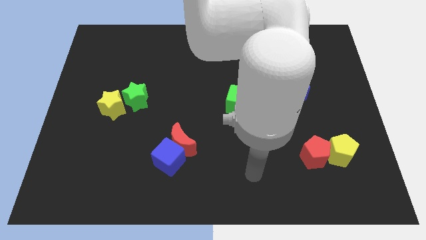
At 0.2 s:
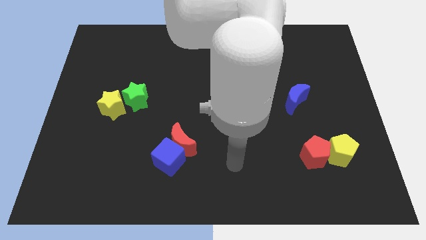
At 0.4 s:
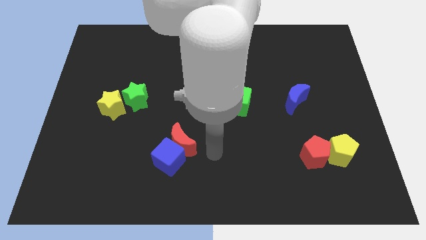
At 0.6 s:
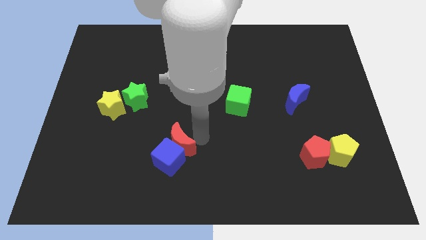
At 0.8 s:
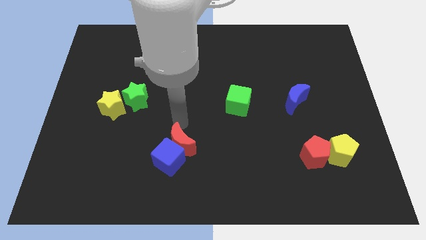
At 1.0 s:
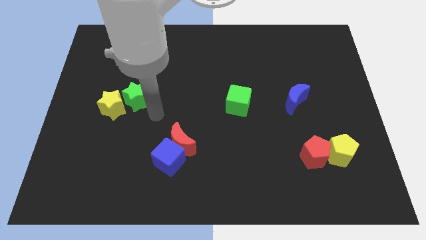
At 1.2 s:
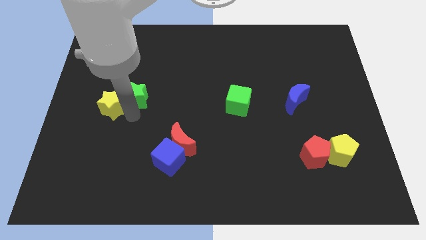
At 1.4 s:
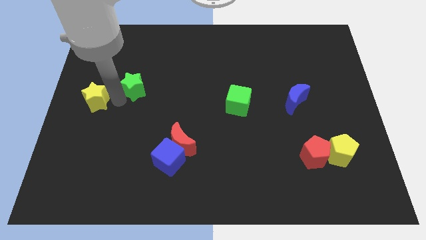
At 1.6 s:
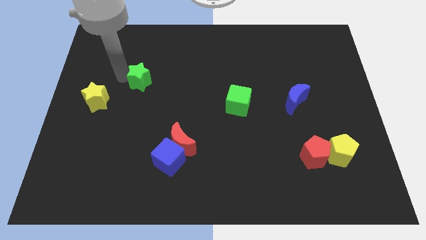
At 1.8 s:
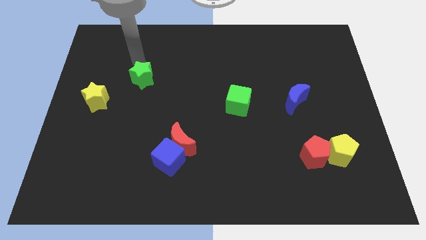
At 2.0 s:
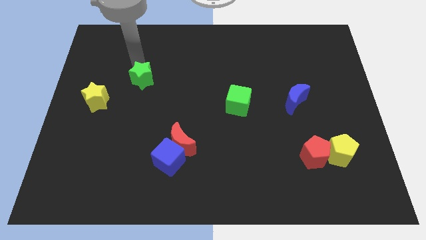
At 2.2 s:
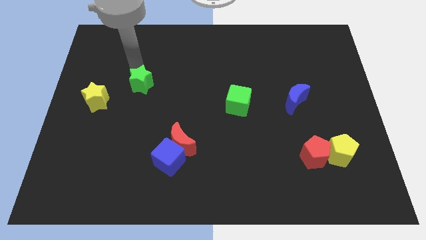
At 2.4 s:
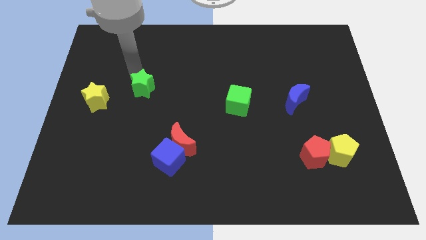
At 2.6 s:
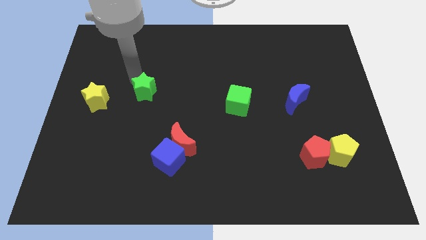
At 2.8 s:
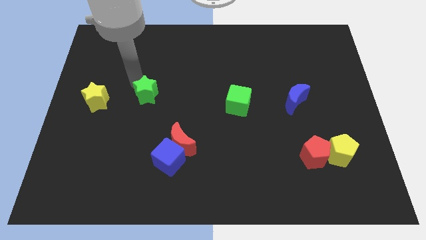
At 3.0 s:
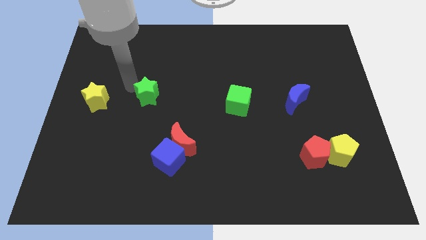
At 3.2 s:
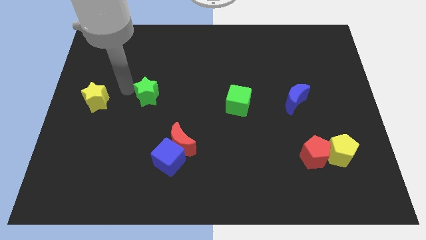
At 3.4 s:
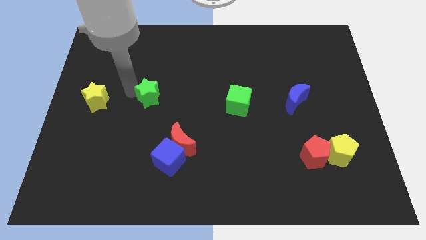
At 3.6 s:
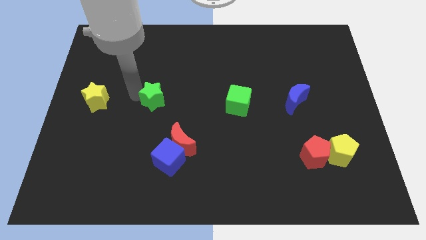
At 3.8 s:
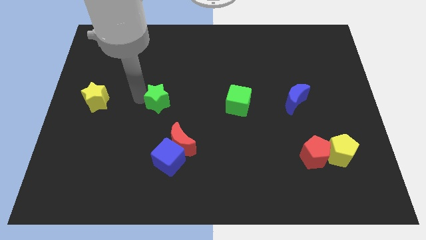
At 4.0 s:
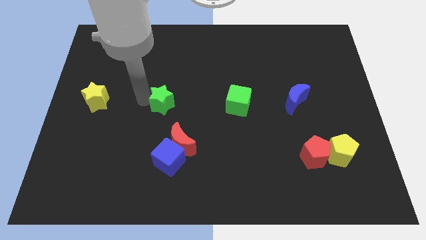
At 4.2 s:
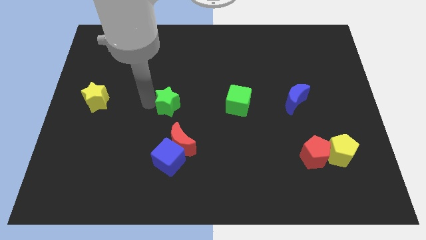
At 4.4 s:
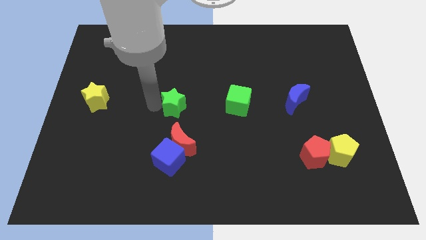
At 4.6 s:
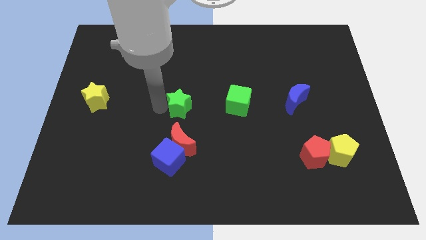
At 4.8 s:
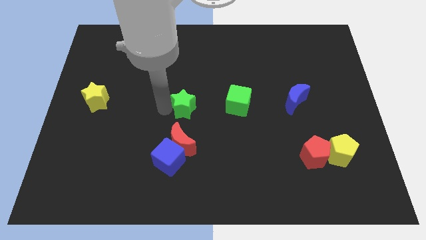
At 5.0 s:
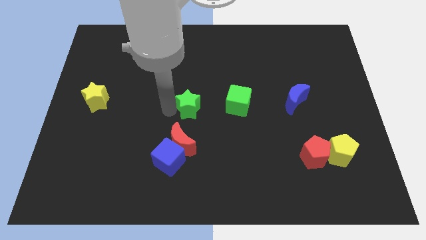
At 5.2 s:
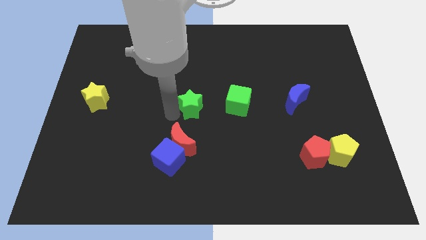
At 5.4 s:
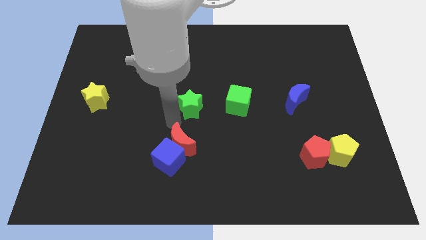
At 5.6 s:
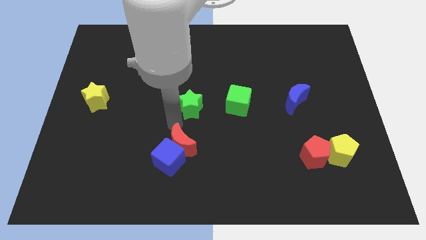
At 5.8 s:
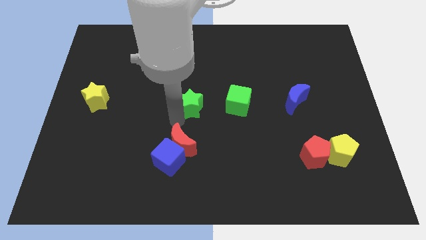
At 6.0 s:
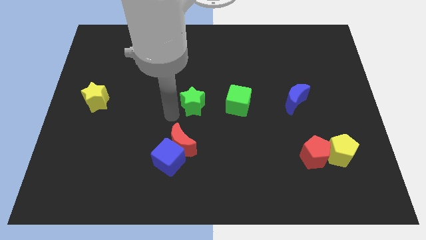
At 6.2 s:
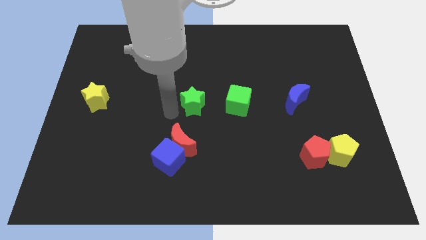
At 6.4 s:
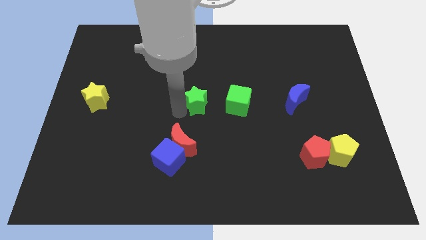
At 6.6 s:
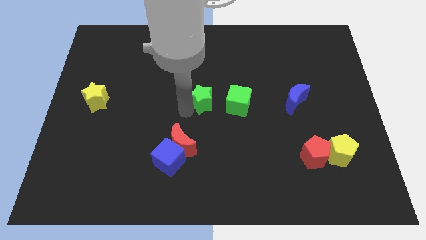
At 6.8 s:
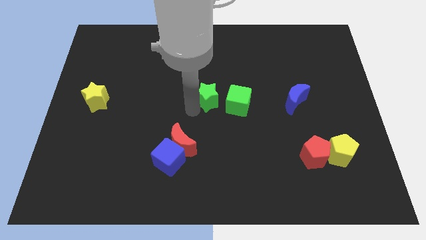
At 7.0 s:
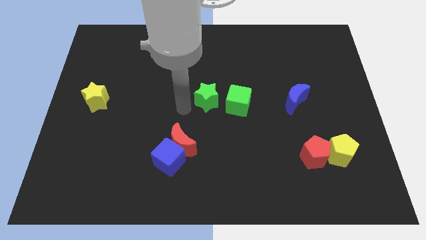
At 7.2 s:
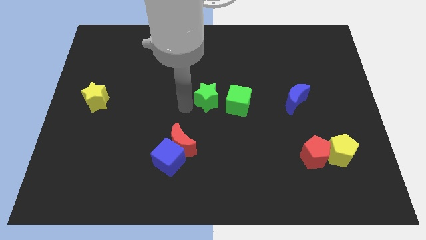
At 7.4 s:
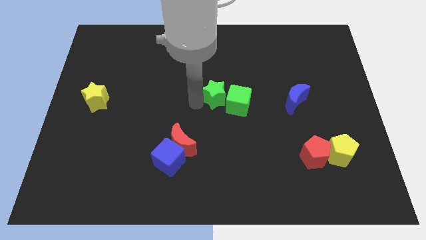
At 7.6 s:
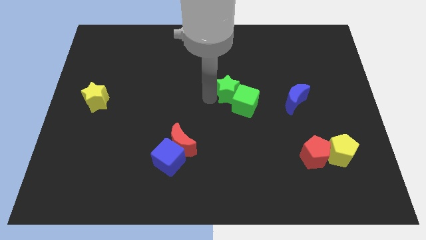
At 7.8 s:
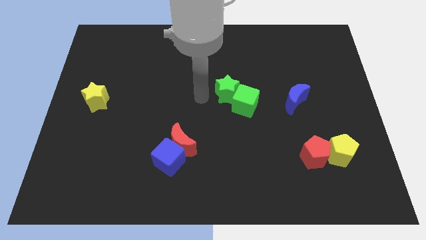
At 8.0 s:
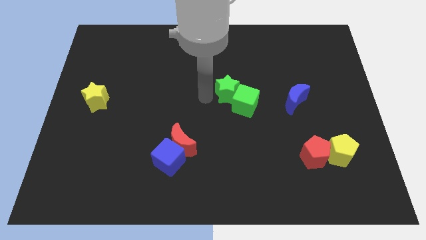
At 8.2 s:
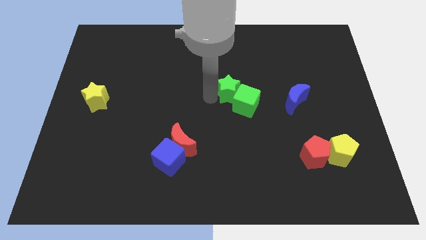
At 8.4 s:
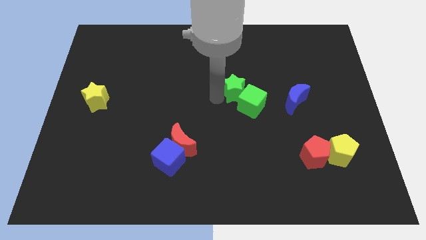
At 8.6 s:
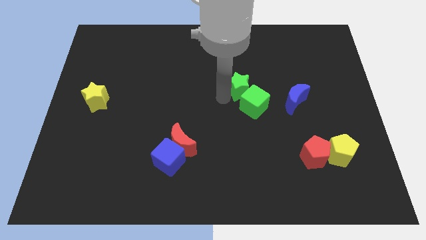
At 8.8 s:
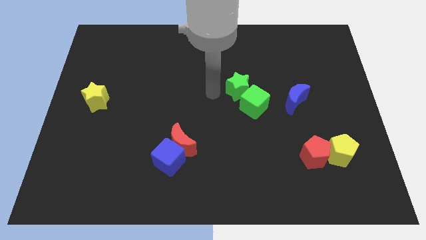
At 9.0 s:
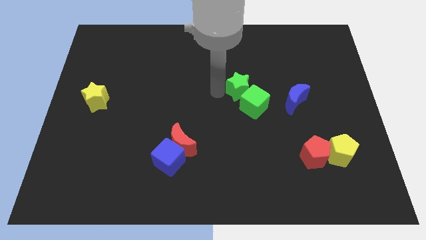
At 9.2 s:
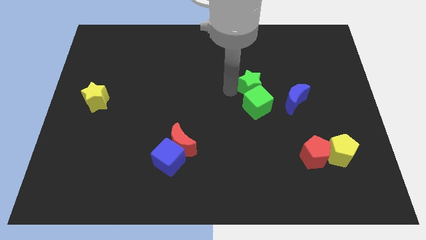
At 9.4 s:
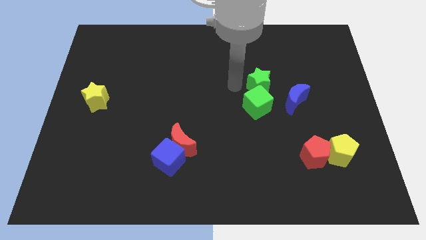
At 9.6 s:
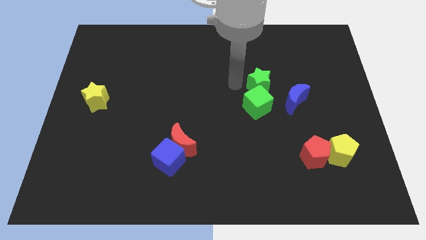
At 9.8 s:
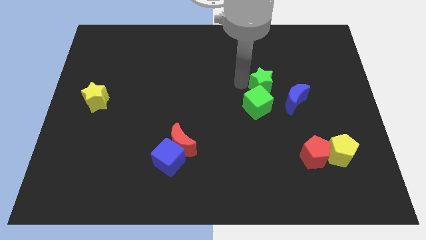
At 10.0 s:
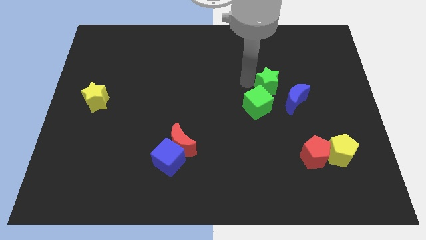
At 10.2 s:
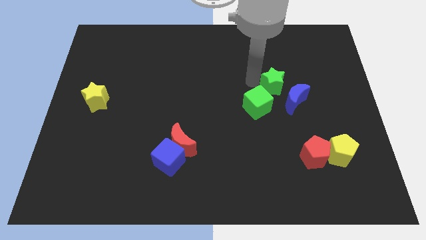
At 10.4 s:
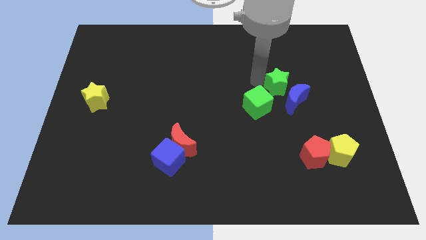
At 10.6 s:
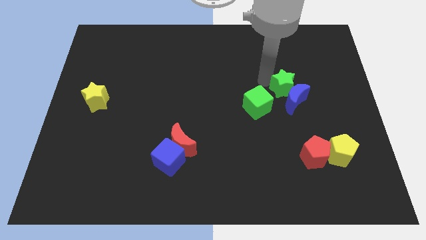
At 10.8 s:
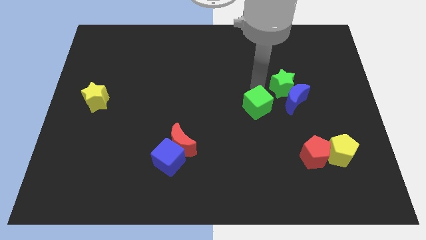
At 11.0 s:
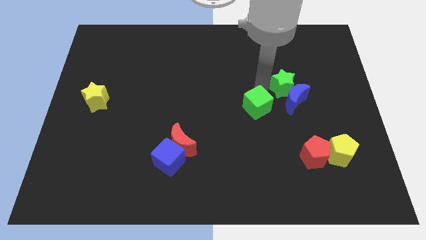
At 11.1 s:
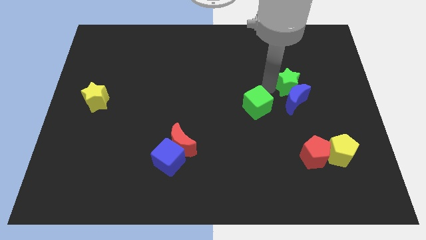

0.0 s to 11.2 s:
put the green star to the top right of the blue moon

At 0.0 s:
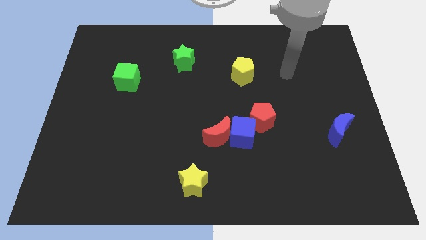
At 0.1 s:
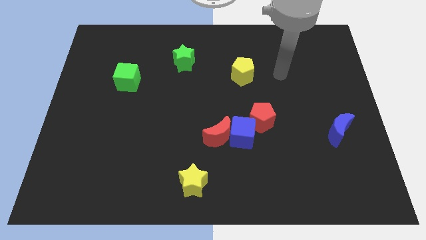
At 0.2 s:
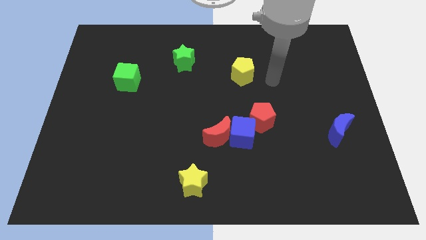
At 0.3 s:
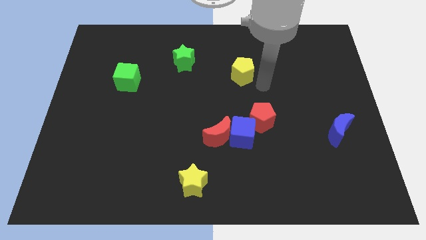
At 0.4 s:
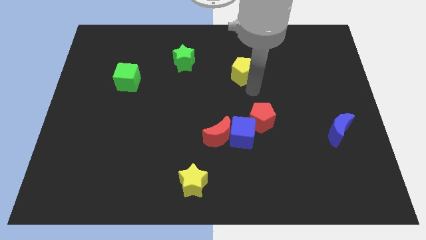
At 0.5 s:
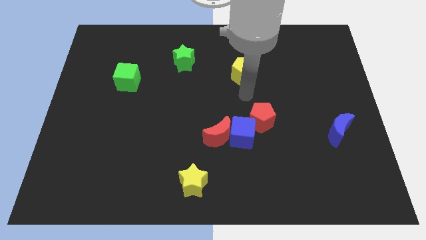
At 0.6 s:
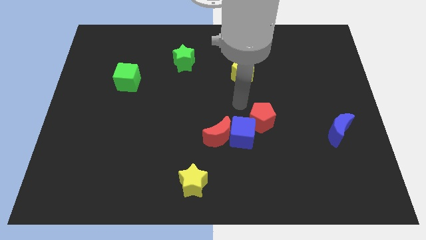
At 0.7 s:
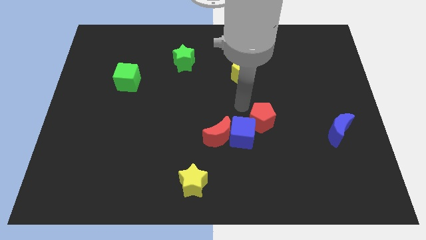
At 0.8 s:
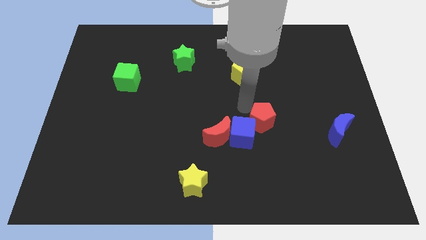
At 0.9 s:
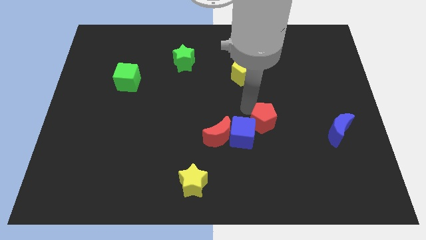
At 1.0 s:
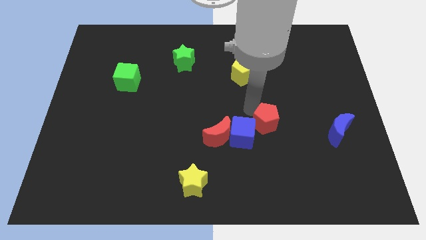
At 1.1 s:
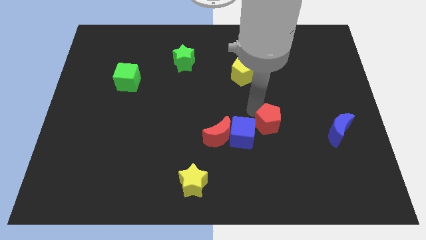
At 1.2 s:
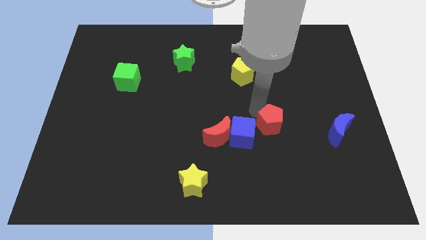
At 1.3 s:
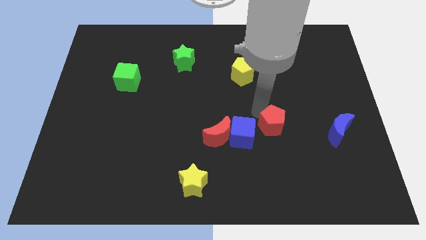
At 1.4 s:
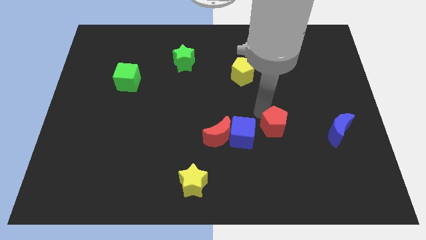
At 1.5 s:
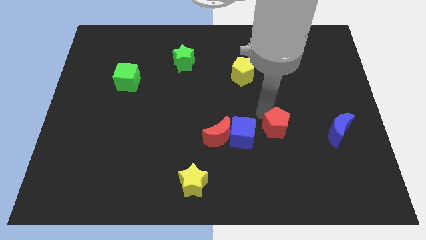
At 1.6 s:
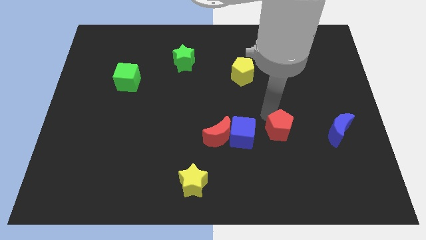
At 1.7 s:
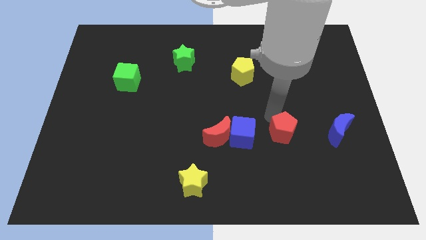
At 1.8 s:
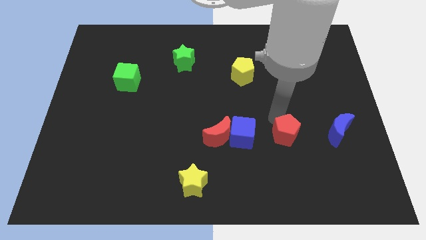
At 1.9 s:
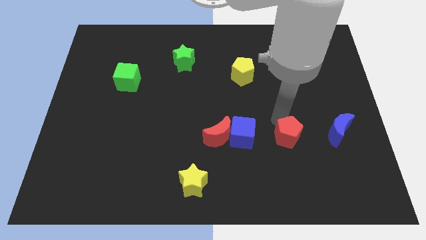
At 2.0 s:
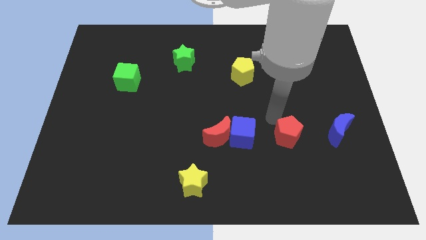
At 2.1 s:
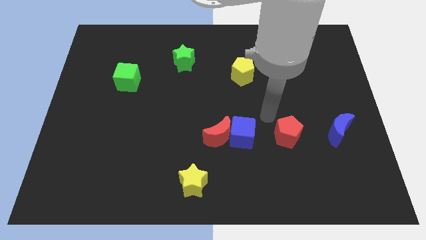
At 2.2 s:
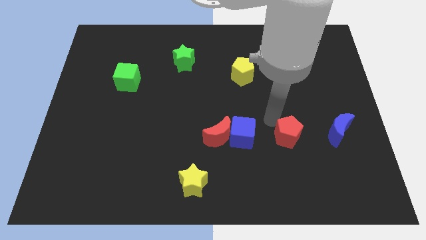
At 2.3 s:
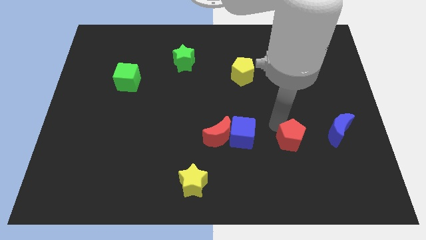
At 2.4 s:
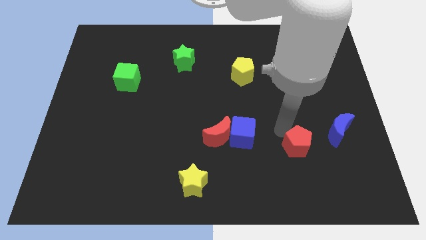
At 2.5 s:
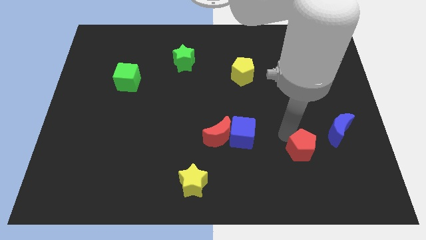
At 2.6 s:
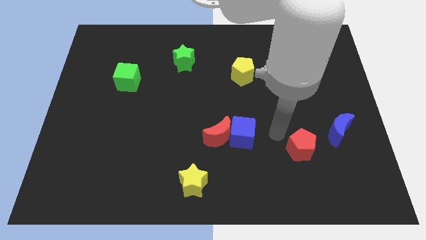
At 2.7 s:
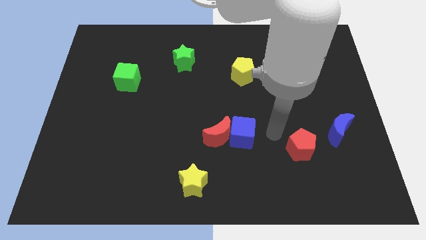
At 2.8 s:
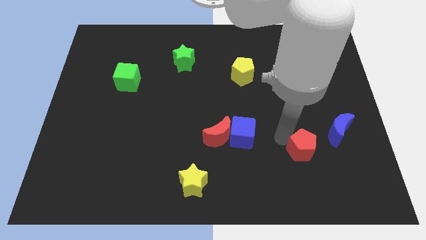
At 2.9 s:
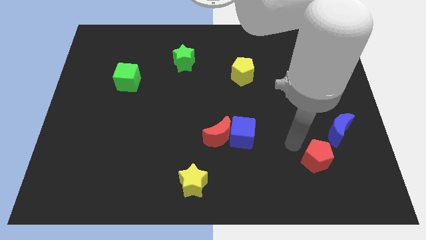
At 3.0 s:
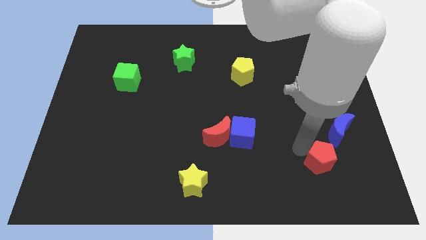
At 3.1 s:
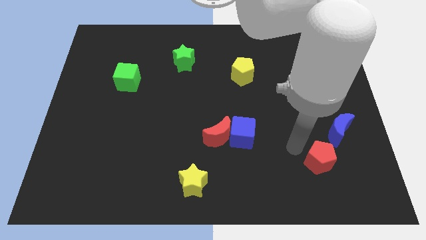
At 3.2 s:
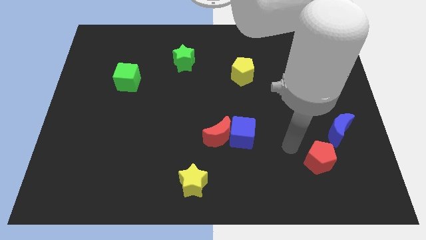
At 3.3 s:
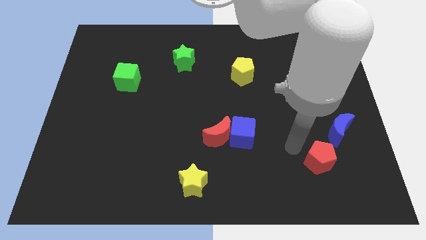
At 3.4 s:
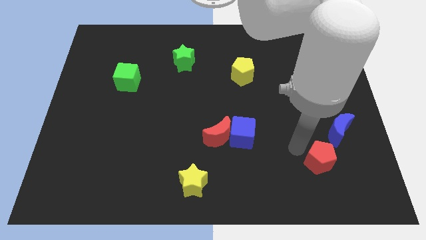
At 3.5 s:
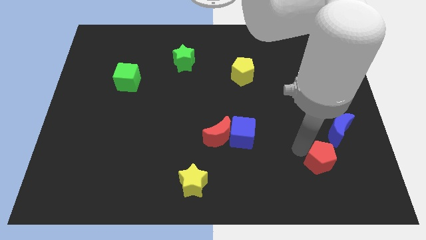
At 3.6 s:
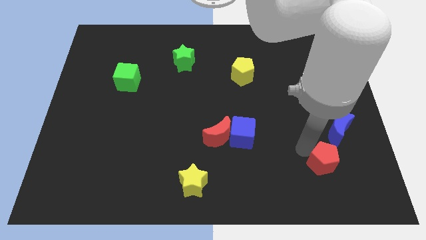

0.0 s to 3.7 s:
push the red pentagon to the bottom side of the blue moon
